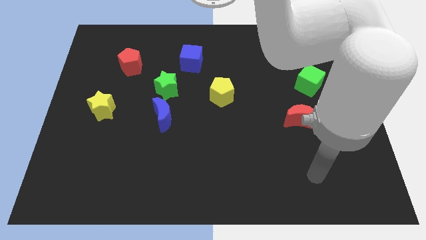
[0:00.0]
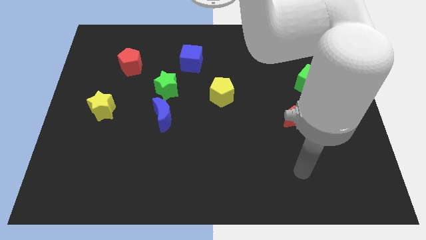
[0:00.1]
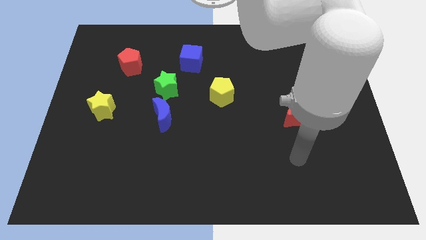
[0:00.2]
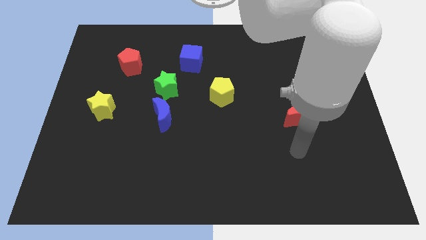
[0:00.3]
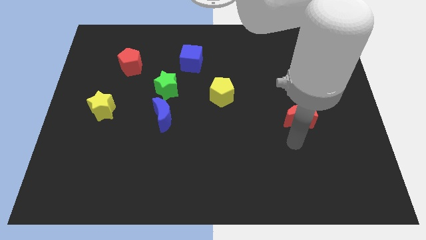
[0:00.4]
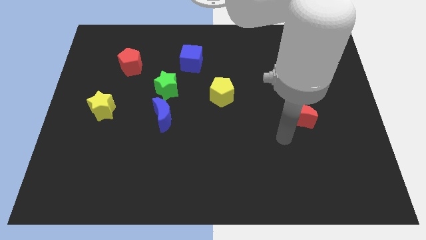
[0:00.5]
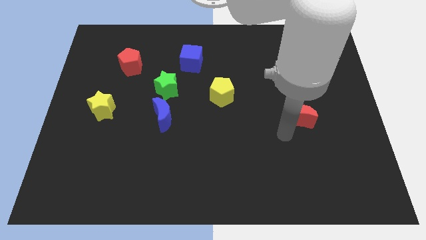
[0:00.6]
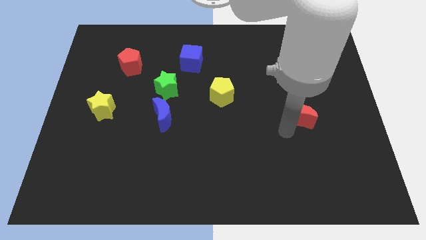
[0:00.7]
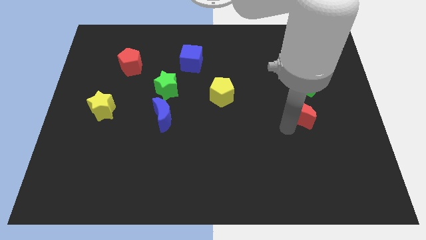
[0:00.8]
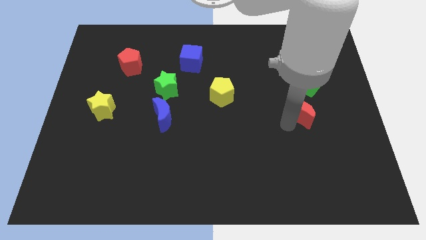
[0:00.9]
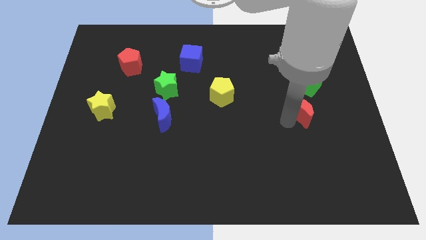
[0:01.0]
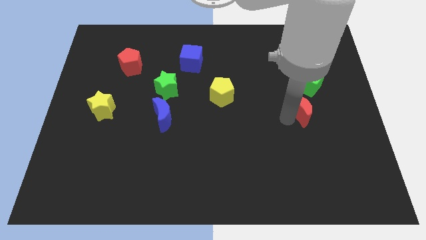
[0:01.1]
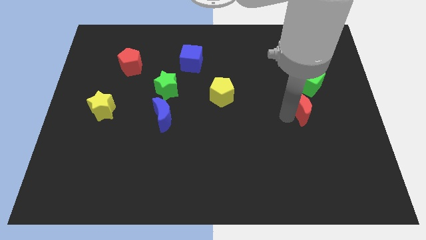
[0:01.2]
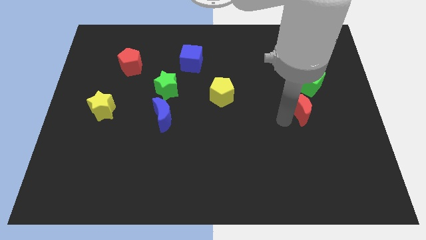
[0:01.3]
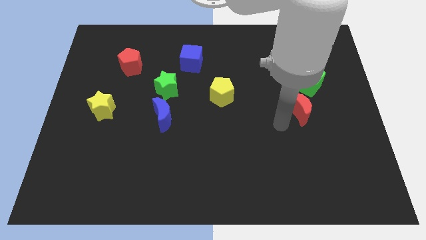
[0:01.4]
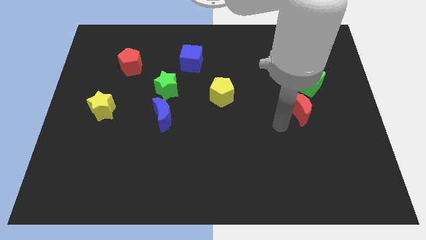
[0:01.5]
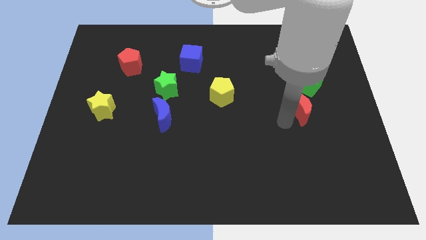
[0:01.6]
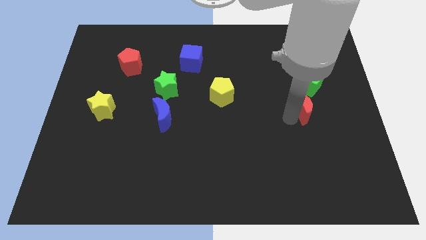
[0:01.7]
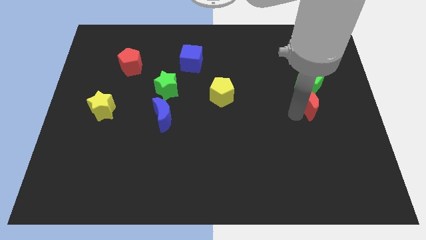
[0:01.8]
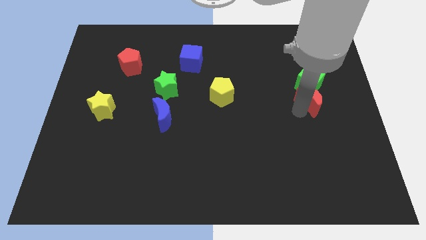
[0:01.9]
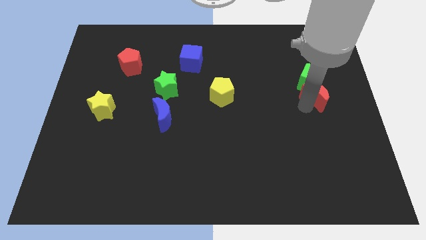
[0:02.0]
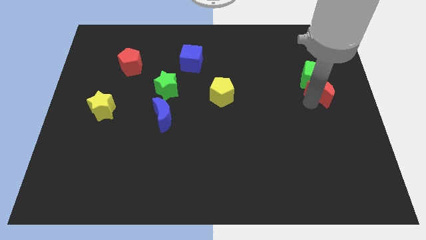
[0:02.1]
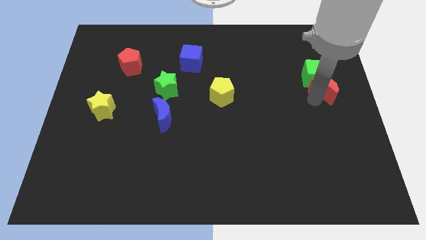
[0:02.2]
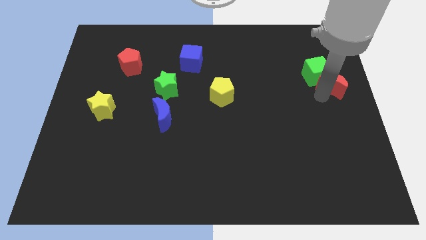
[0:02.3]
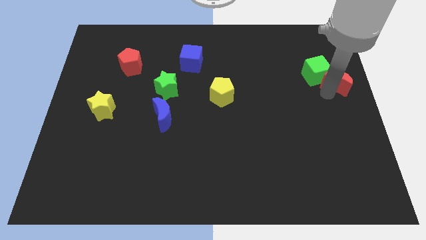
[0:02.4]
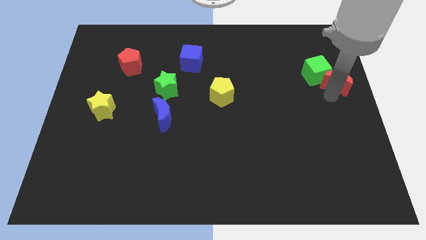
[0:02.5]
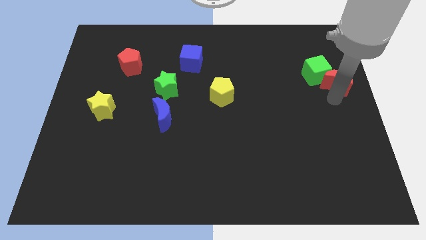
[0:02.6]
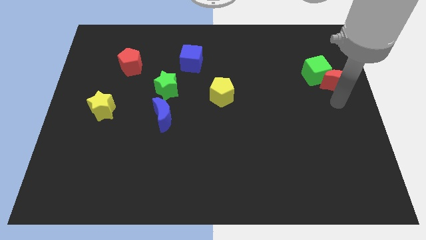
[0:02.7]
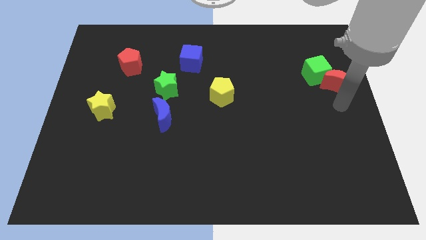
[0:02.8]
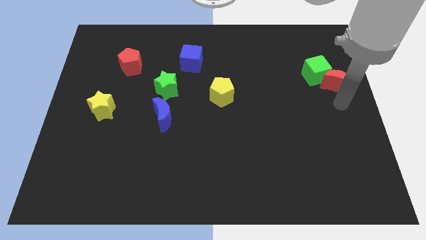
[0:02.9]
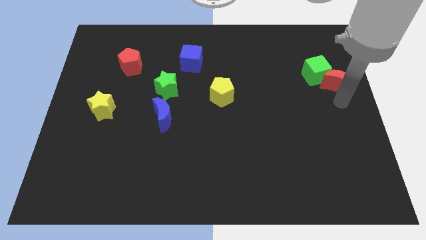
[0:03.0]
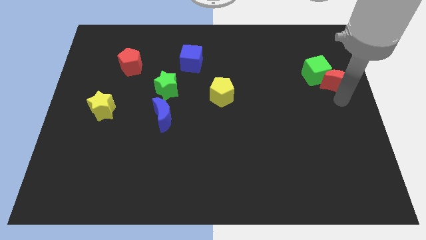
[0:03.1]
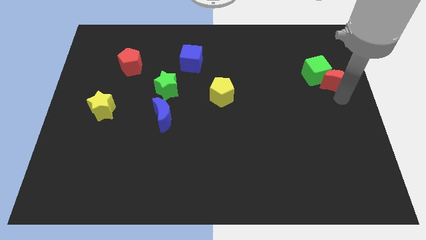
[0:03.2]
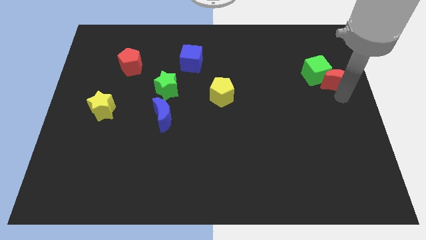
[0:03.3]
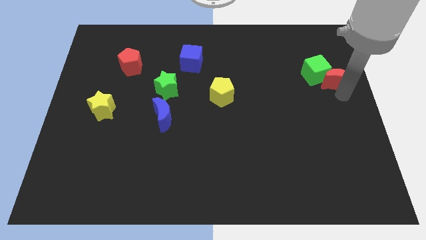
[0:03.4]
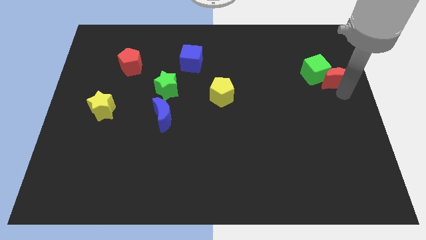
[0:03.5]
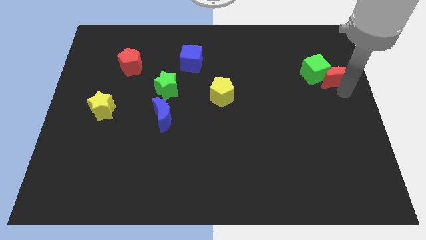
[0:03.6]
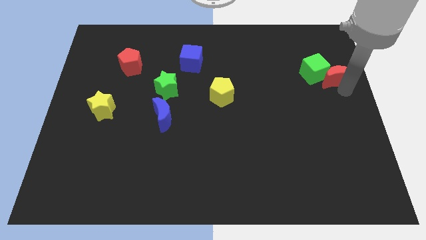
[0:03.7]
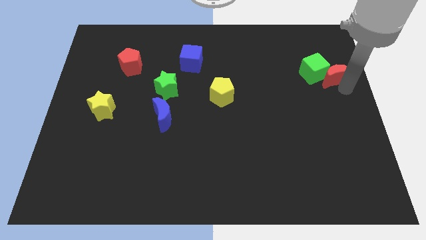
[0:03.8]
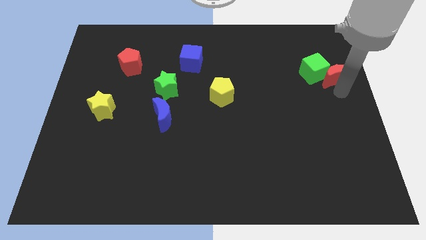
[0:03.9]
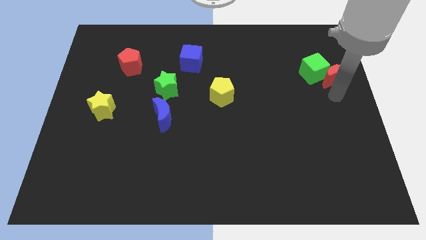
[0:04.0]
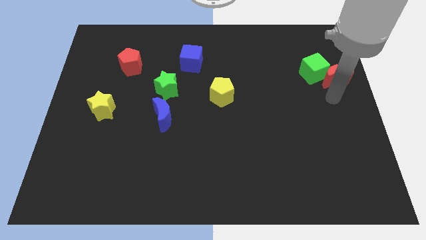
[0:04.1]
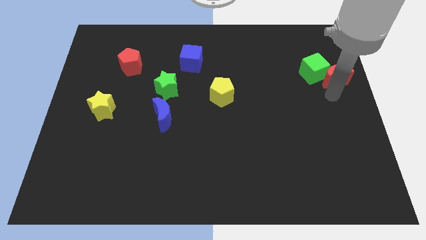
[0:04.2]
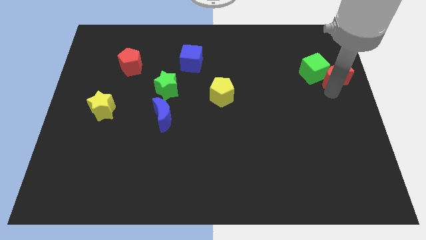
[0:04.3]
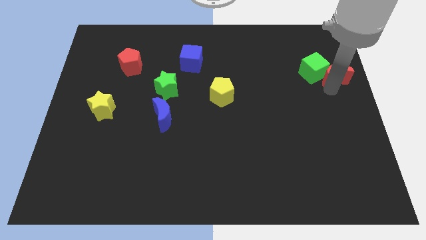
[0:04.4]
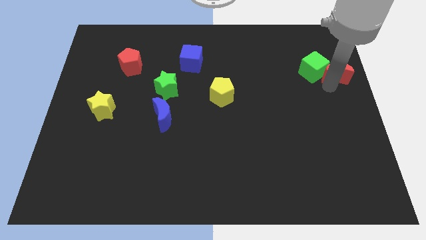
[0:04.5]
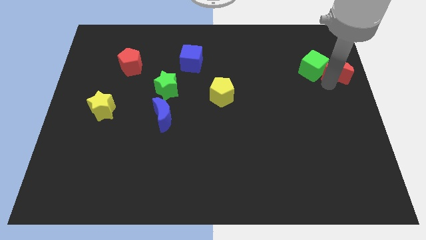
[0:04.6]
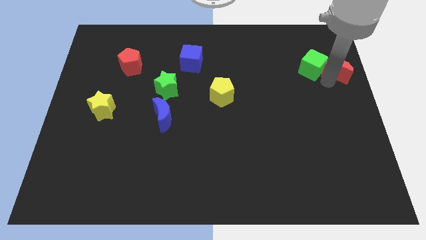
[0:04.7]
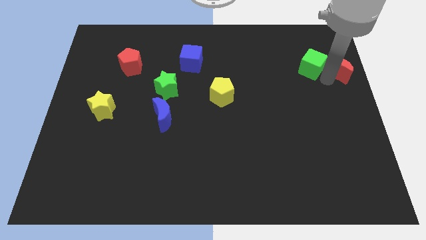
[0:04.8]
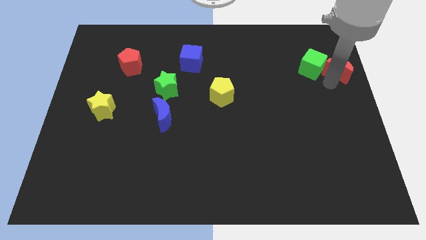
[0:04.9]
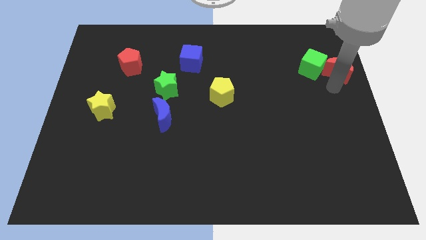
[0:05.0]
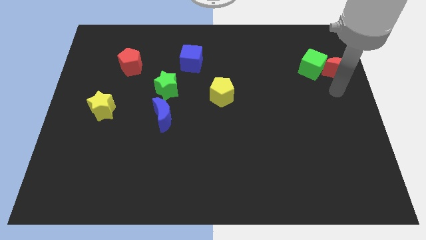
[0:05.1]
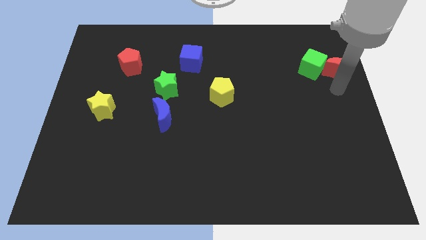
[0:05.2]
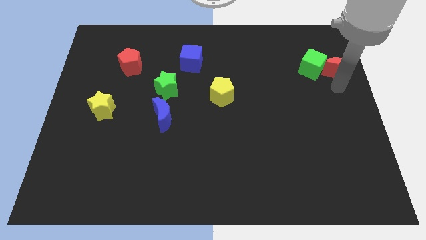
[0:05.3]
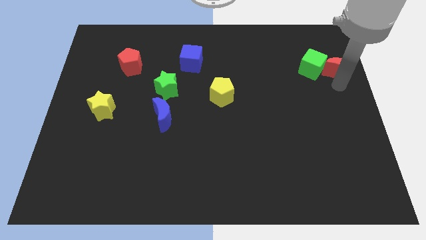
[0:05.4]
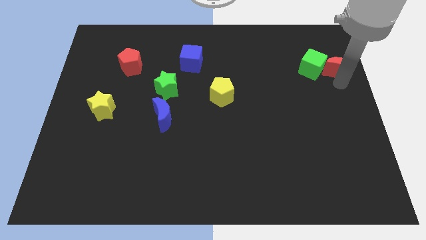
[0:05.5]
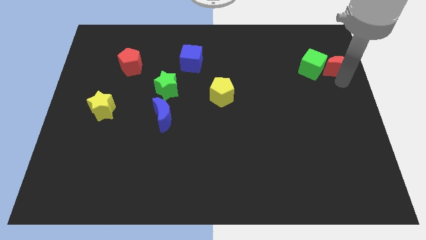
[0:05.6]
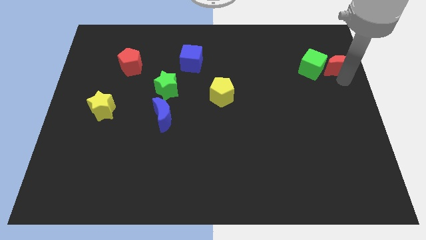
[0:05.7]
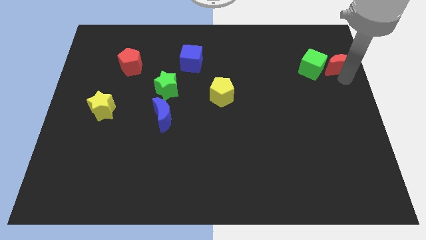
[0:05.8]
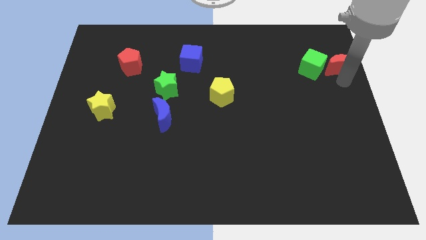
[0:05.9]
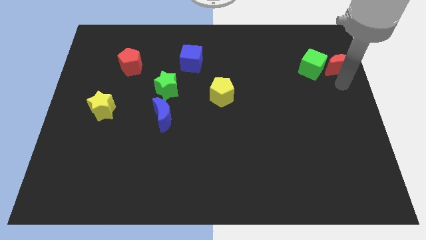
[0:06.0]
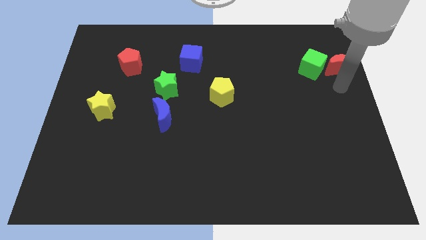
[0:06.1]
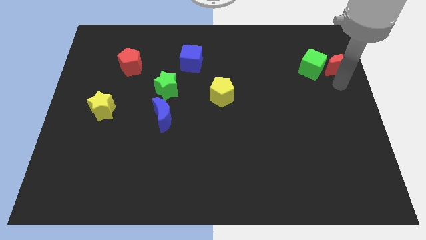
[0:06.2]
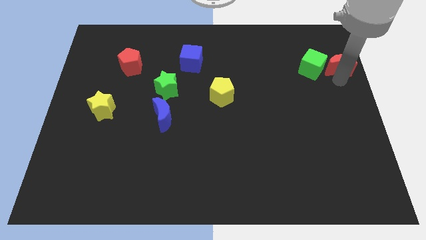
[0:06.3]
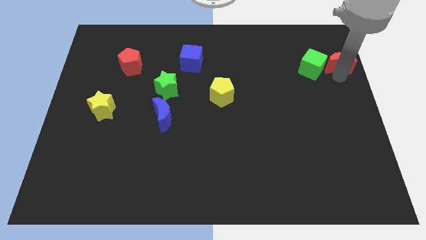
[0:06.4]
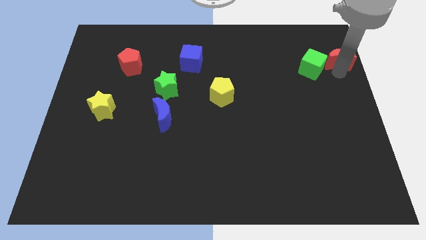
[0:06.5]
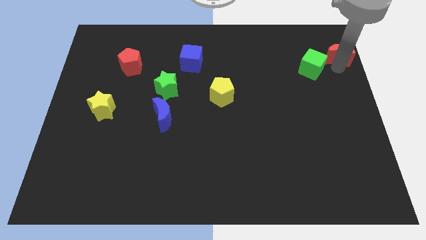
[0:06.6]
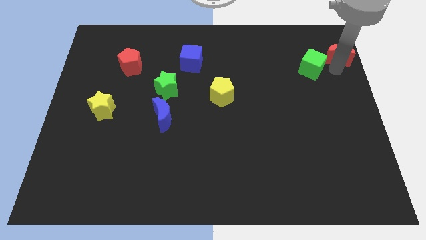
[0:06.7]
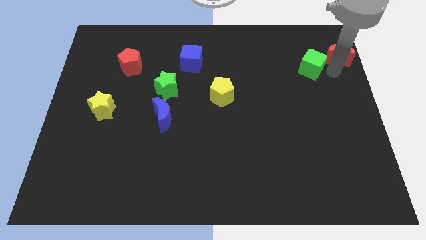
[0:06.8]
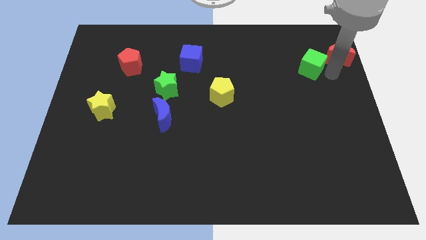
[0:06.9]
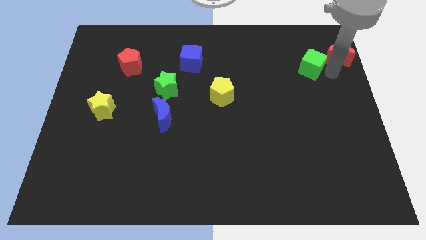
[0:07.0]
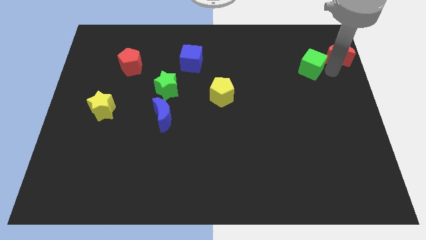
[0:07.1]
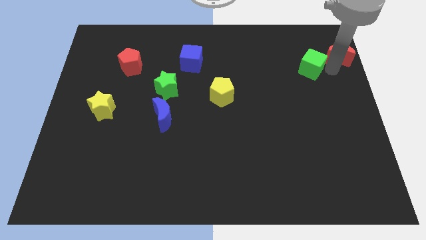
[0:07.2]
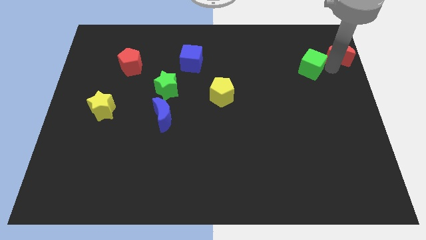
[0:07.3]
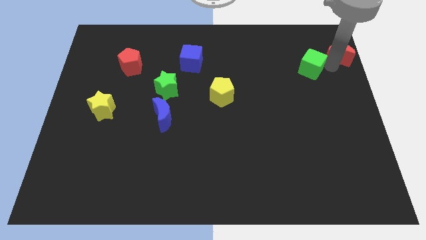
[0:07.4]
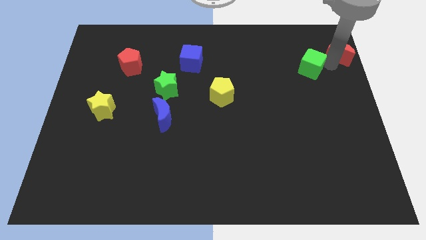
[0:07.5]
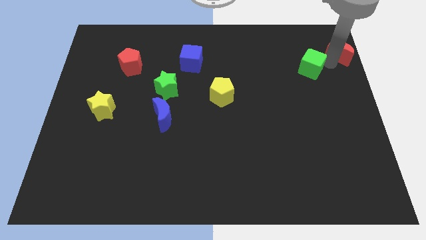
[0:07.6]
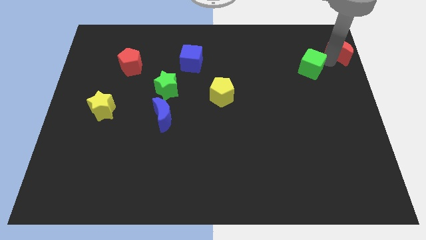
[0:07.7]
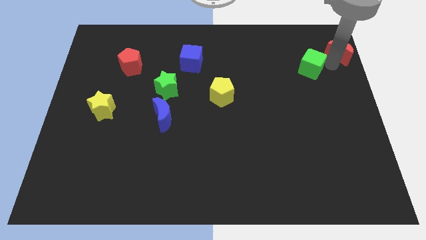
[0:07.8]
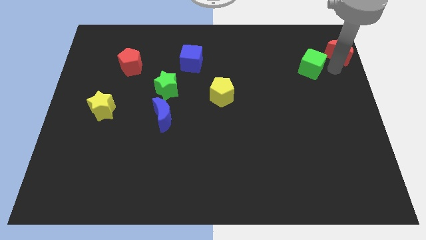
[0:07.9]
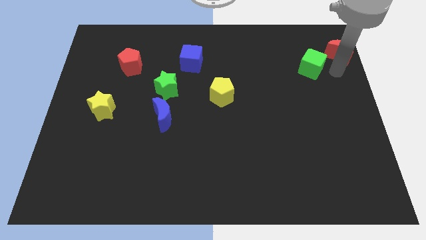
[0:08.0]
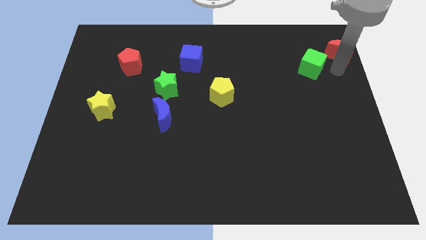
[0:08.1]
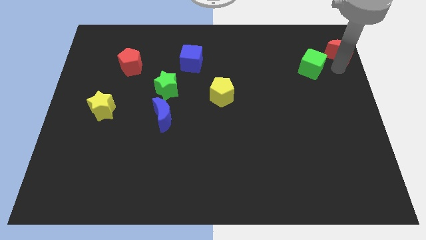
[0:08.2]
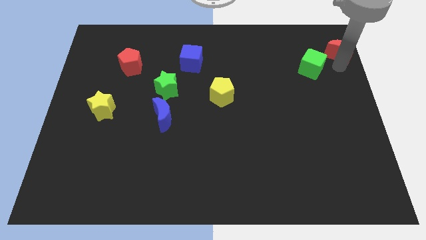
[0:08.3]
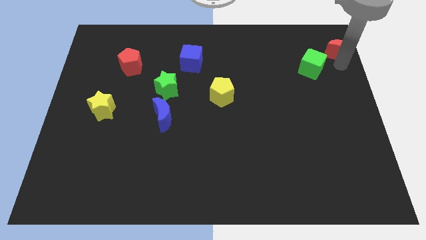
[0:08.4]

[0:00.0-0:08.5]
slide the red moon to the top right
